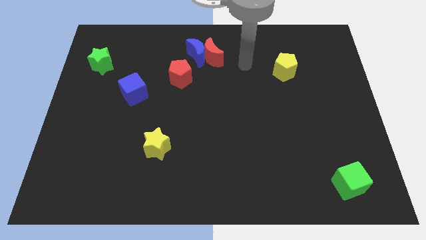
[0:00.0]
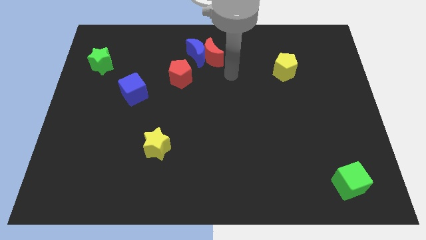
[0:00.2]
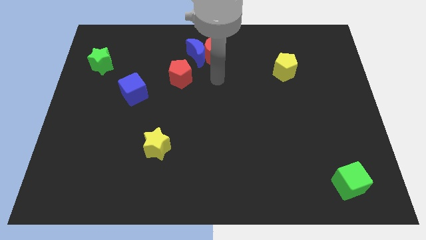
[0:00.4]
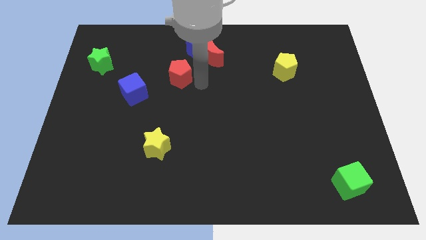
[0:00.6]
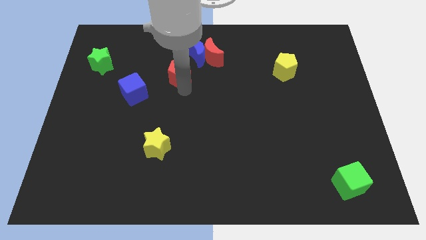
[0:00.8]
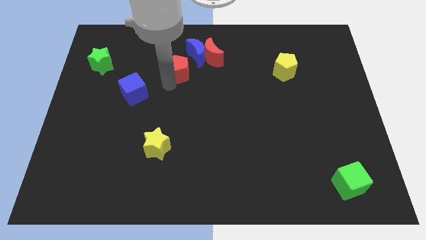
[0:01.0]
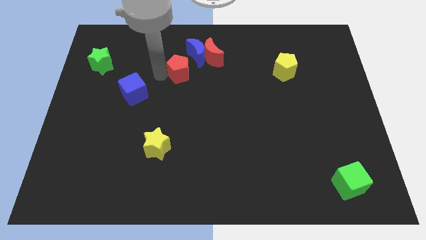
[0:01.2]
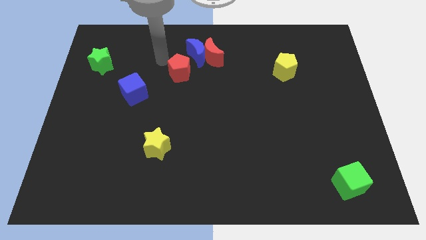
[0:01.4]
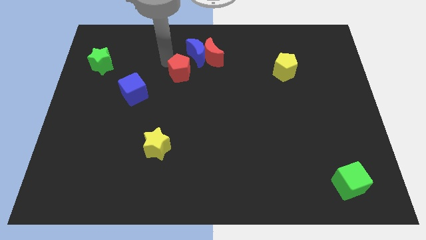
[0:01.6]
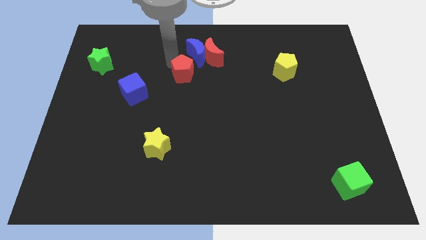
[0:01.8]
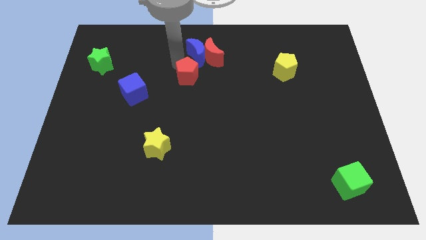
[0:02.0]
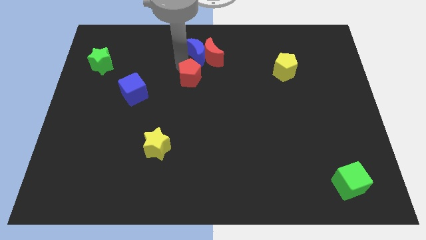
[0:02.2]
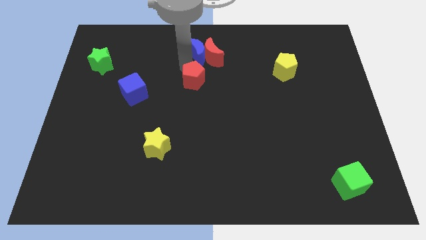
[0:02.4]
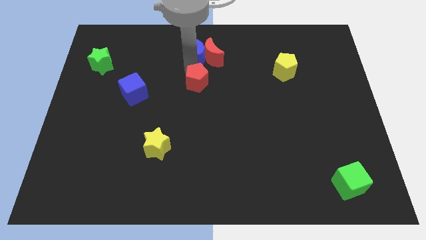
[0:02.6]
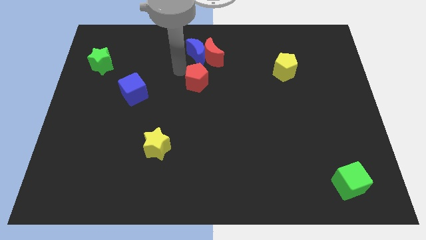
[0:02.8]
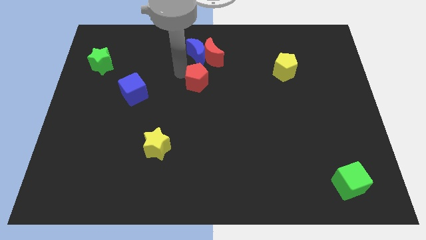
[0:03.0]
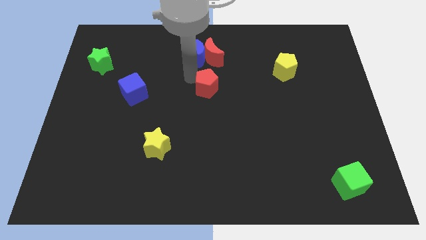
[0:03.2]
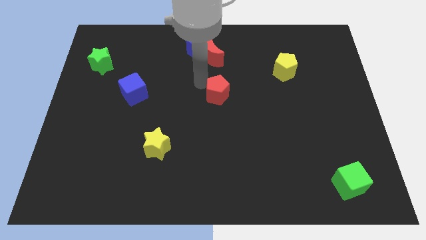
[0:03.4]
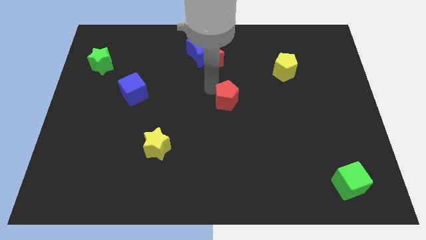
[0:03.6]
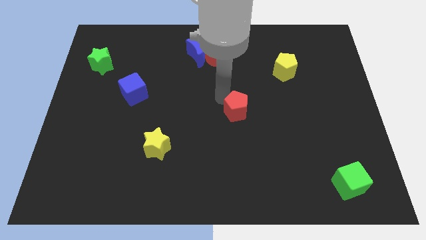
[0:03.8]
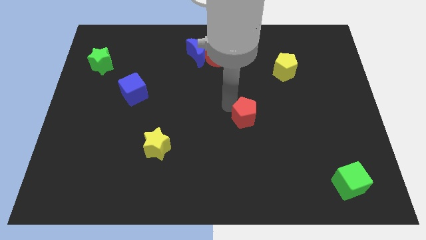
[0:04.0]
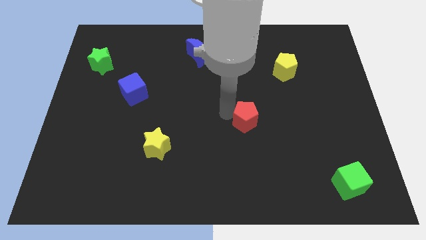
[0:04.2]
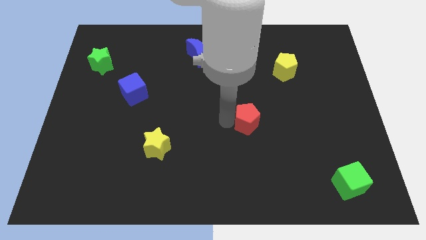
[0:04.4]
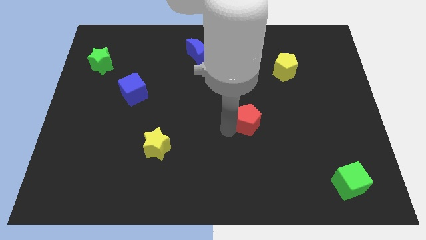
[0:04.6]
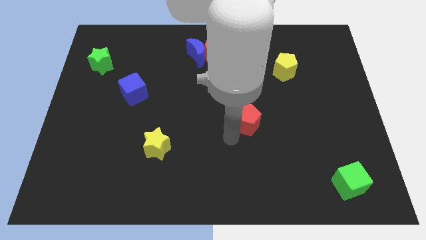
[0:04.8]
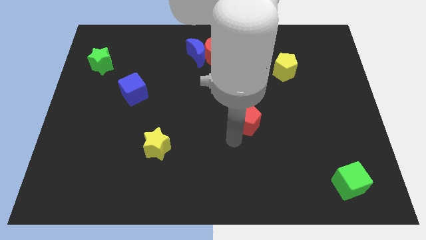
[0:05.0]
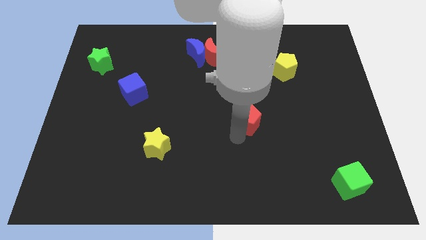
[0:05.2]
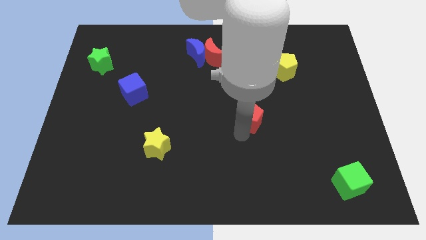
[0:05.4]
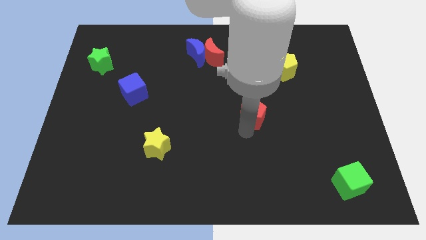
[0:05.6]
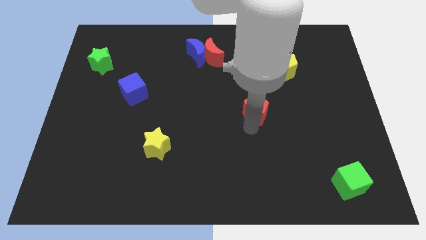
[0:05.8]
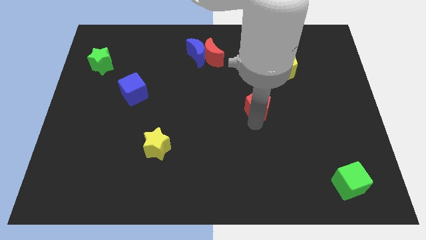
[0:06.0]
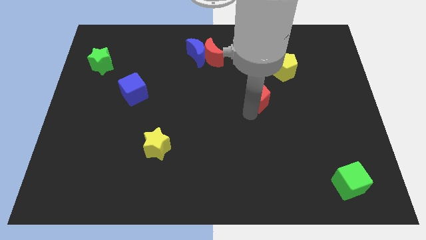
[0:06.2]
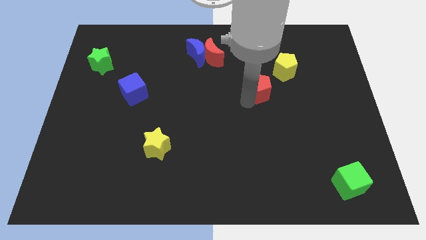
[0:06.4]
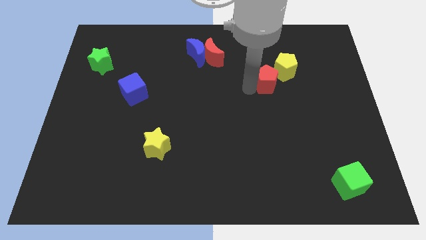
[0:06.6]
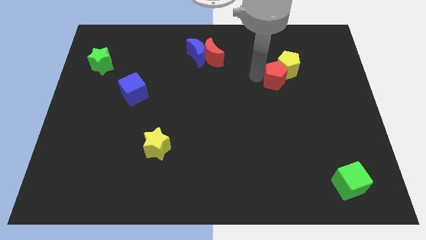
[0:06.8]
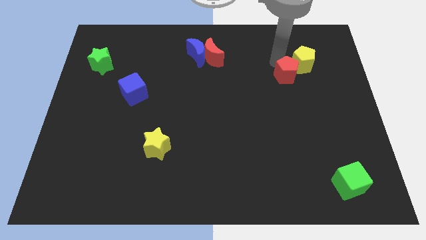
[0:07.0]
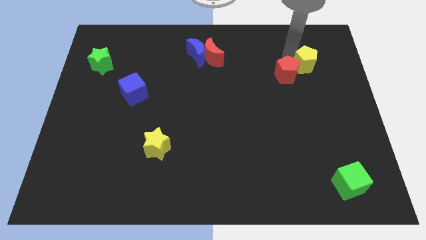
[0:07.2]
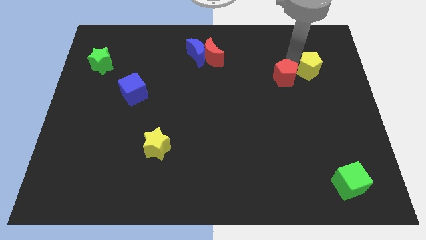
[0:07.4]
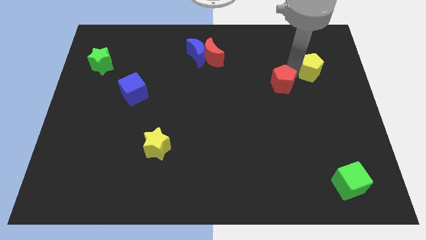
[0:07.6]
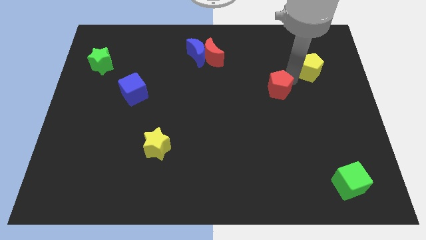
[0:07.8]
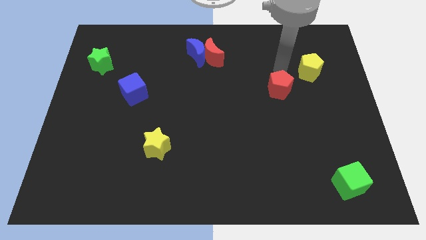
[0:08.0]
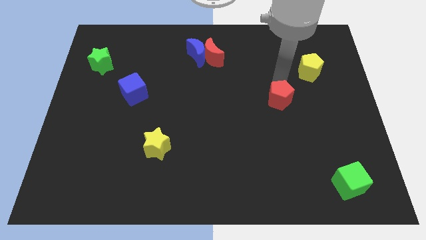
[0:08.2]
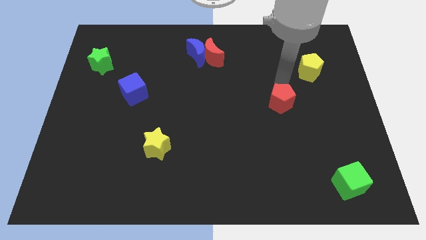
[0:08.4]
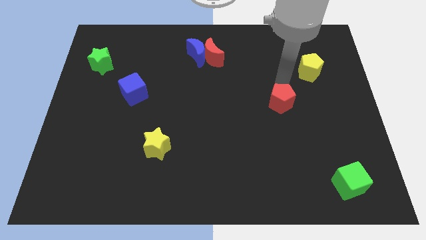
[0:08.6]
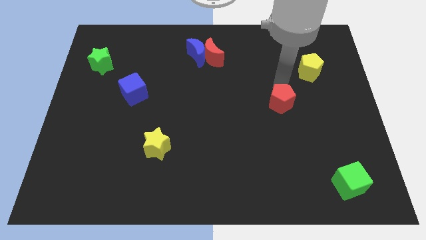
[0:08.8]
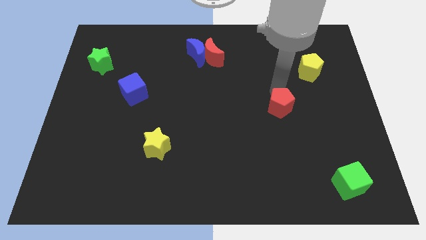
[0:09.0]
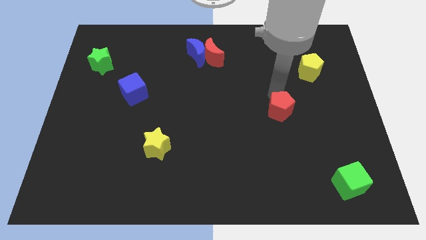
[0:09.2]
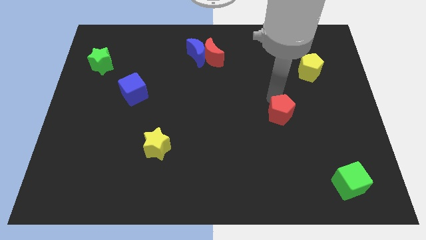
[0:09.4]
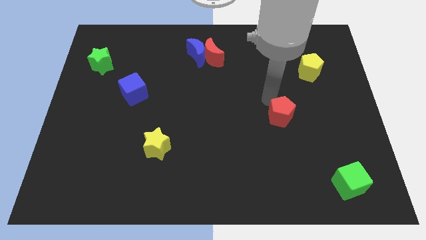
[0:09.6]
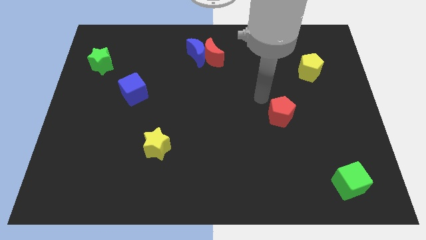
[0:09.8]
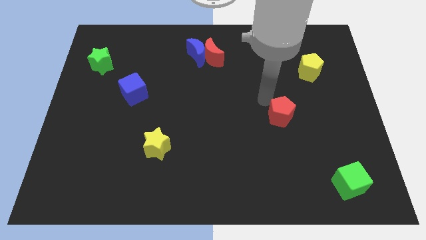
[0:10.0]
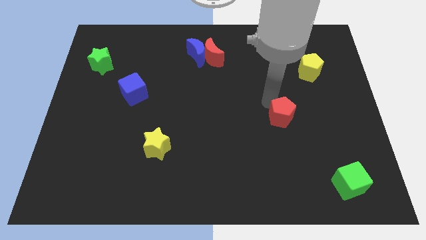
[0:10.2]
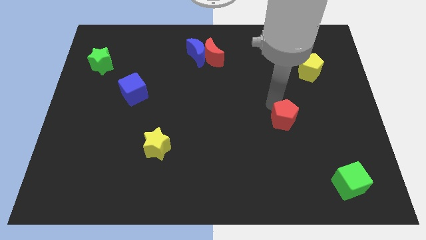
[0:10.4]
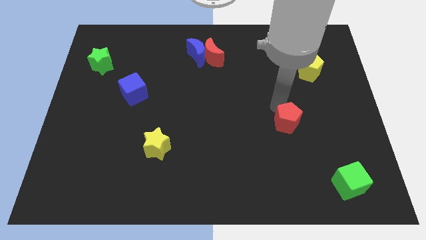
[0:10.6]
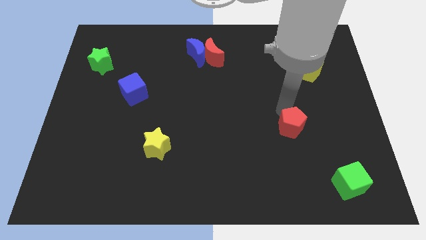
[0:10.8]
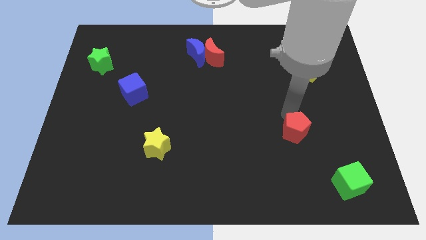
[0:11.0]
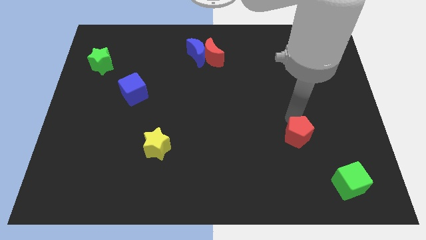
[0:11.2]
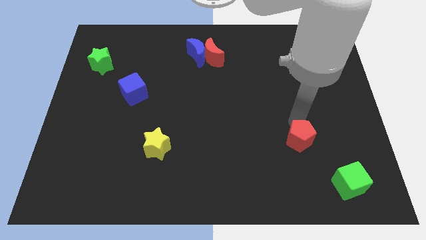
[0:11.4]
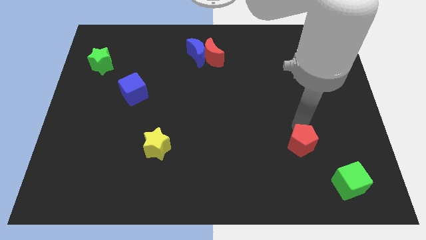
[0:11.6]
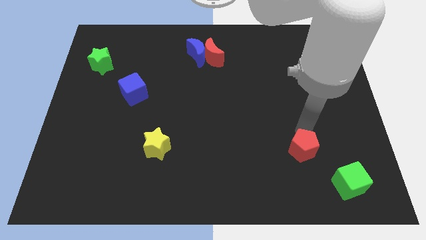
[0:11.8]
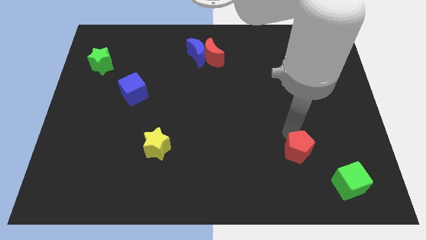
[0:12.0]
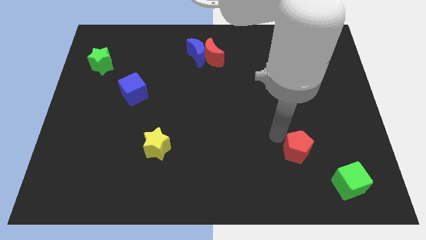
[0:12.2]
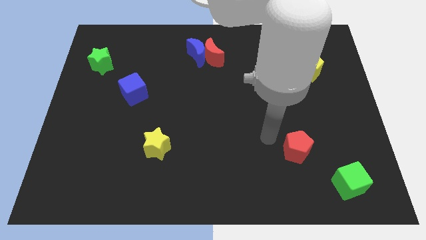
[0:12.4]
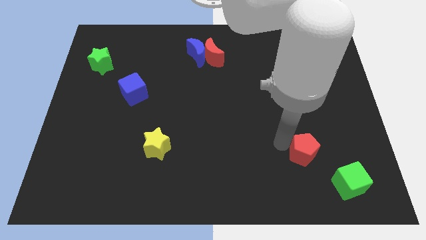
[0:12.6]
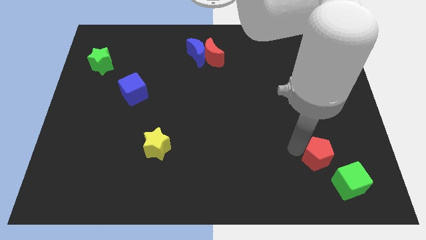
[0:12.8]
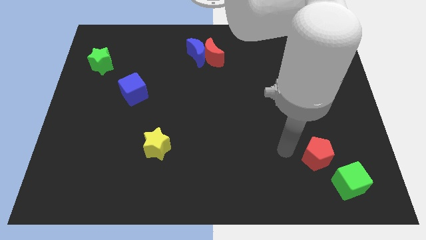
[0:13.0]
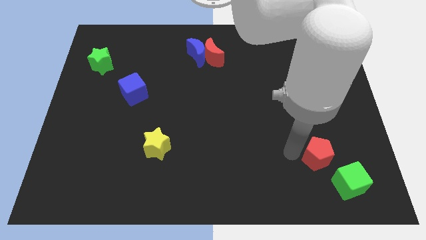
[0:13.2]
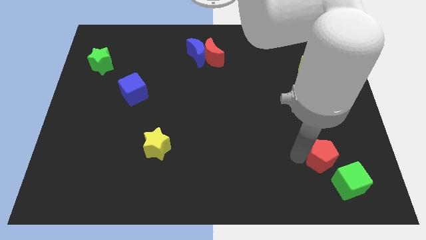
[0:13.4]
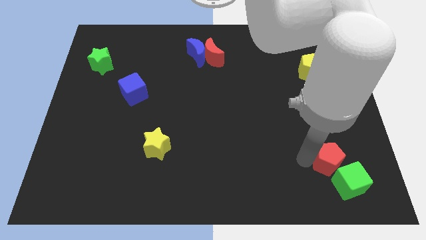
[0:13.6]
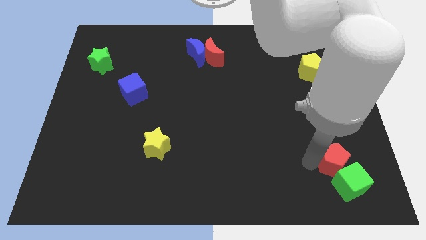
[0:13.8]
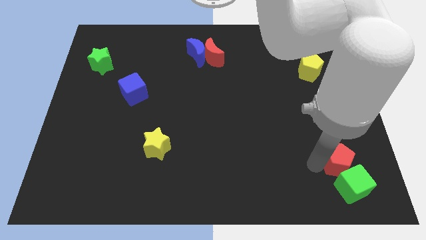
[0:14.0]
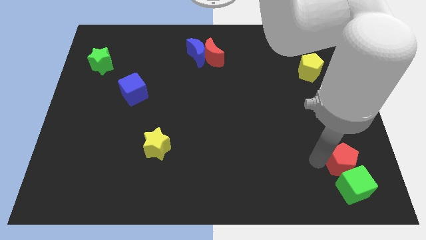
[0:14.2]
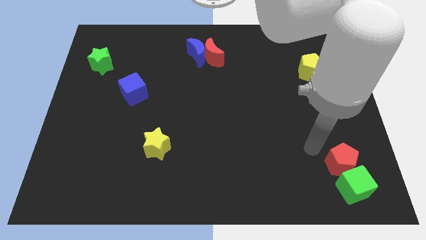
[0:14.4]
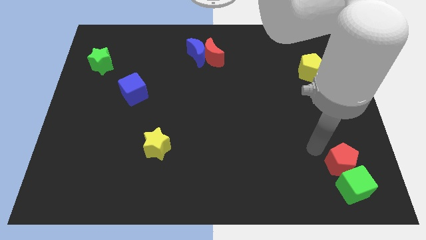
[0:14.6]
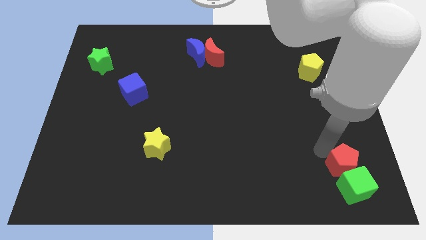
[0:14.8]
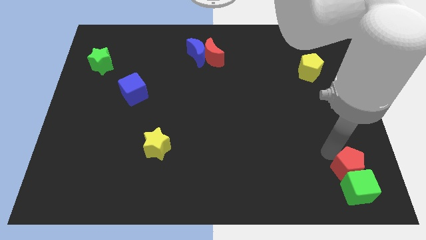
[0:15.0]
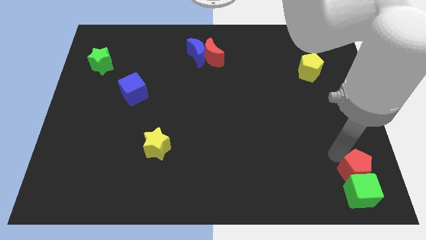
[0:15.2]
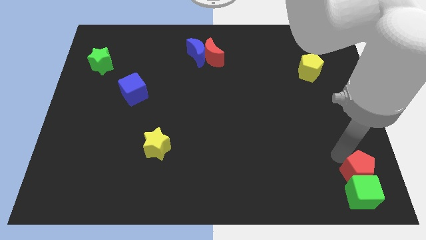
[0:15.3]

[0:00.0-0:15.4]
put the red pentagon to the lower right corner
